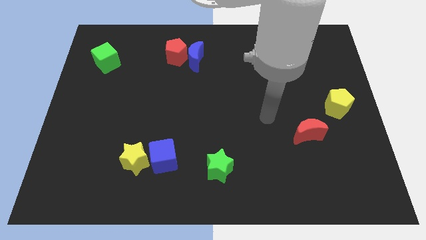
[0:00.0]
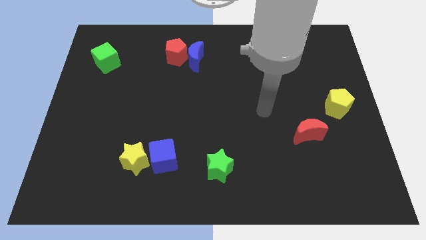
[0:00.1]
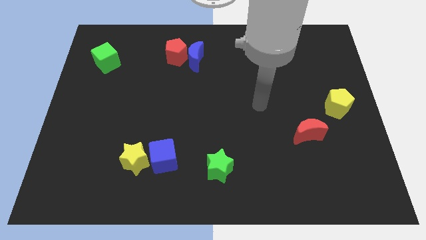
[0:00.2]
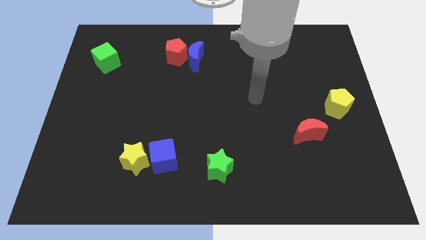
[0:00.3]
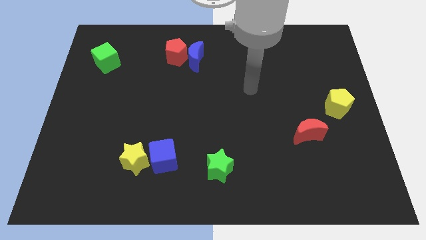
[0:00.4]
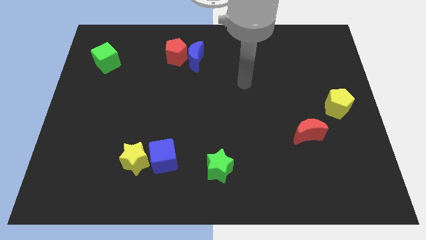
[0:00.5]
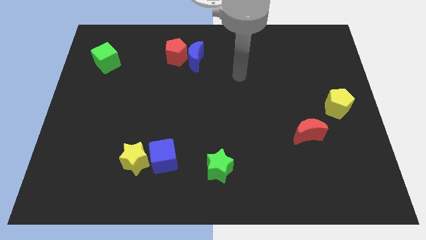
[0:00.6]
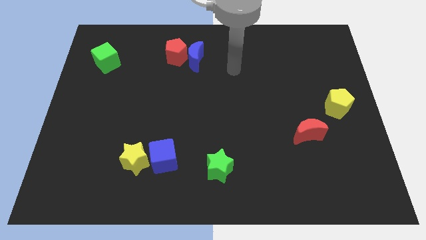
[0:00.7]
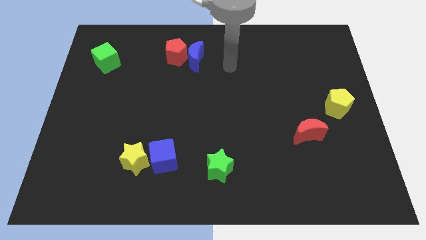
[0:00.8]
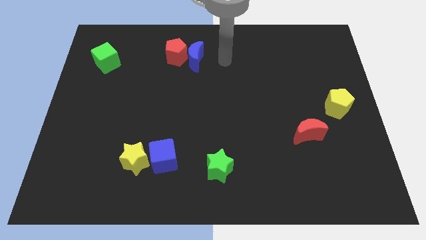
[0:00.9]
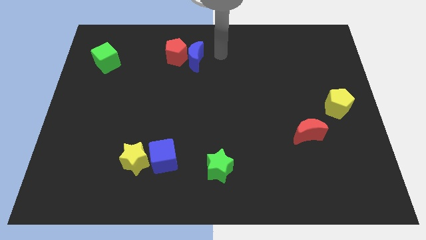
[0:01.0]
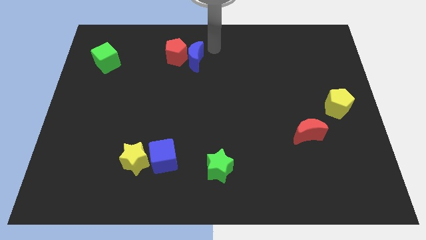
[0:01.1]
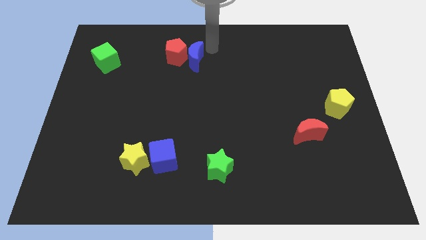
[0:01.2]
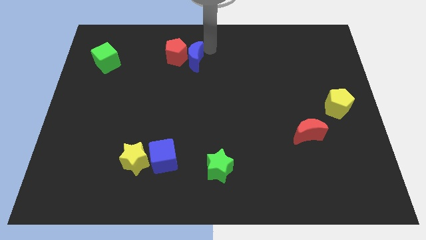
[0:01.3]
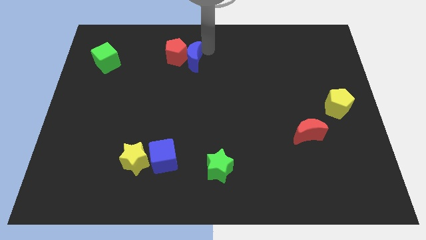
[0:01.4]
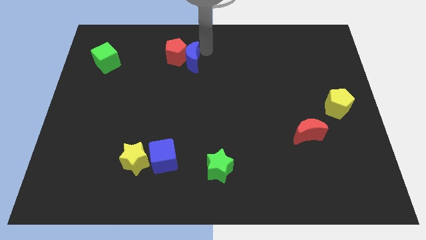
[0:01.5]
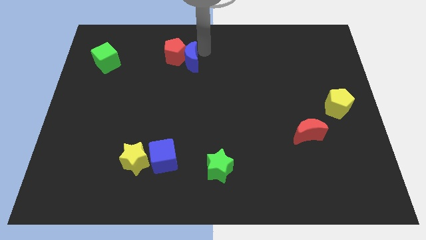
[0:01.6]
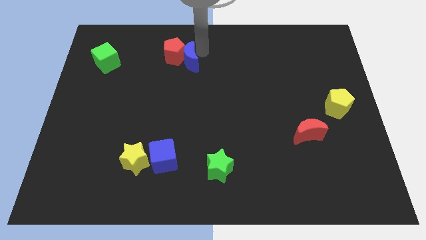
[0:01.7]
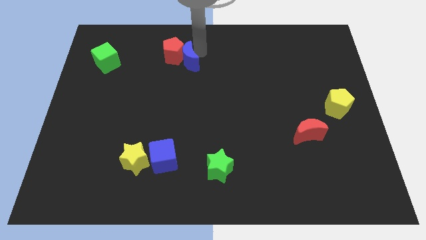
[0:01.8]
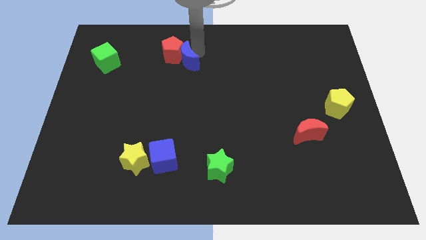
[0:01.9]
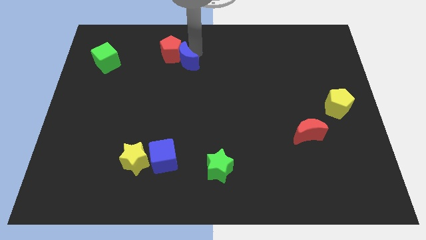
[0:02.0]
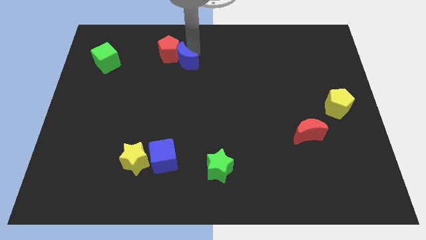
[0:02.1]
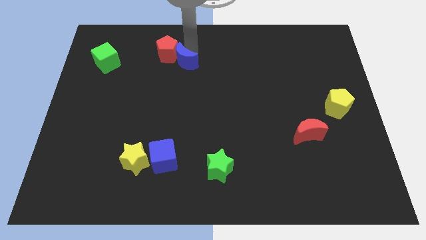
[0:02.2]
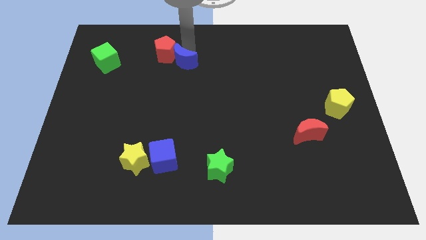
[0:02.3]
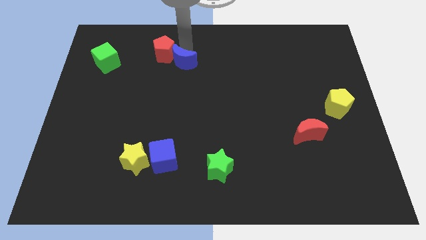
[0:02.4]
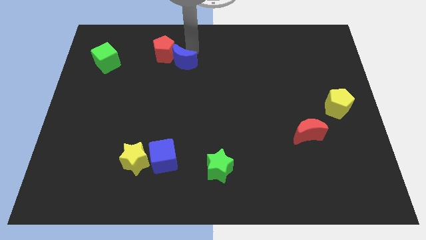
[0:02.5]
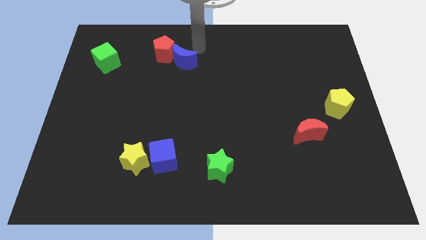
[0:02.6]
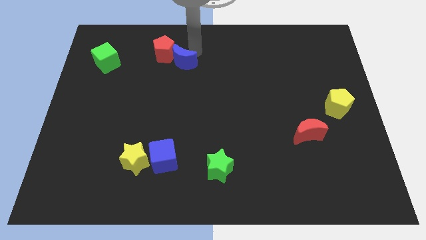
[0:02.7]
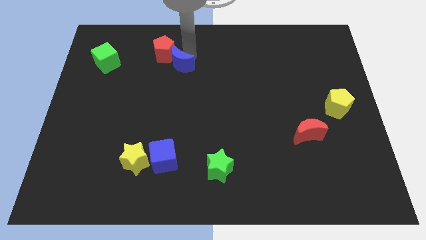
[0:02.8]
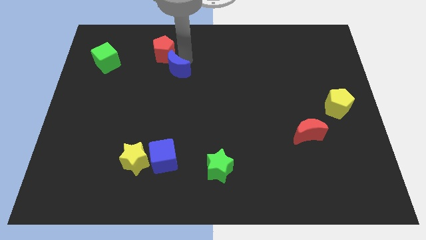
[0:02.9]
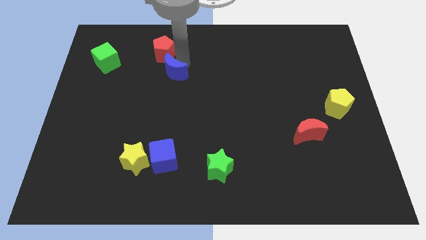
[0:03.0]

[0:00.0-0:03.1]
move the blue moon slightly diagonally down and left

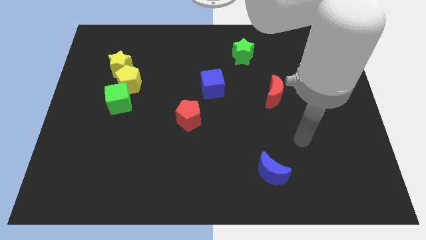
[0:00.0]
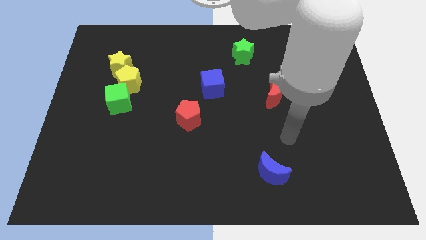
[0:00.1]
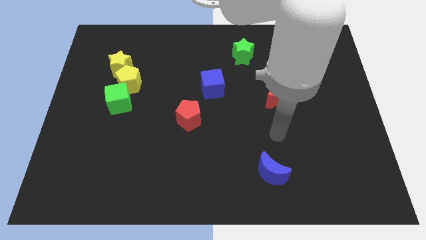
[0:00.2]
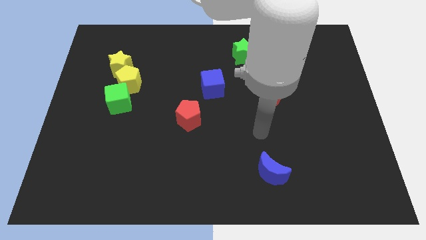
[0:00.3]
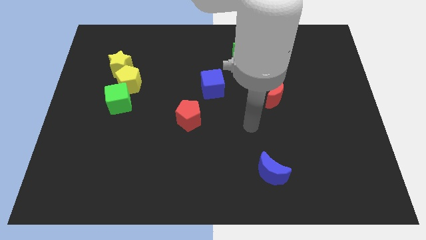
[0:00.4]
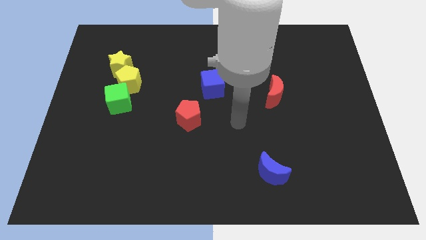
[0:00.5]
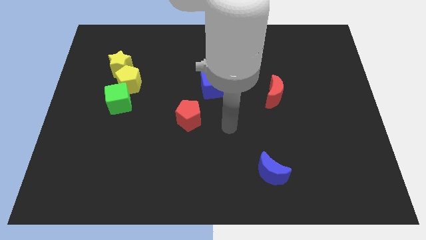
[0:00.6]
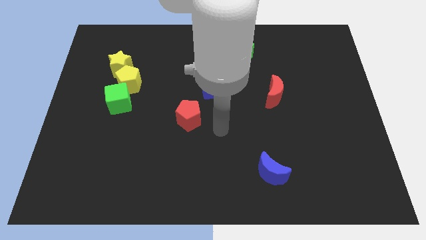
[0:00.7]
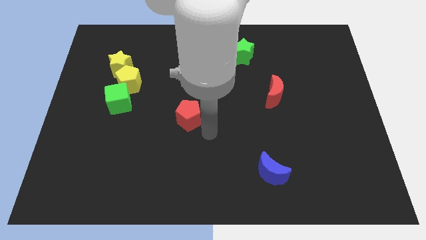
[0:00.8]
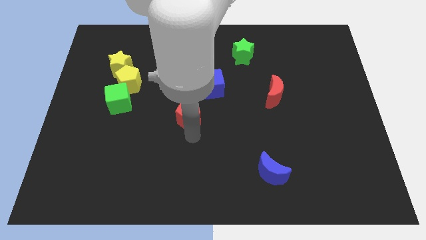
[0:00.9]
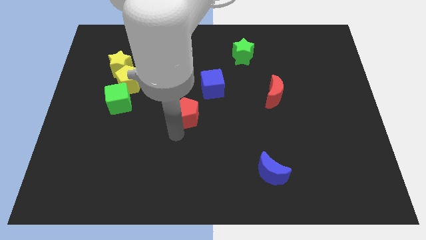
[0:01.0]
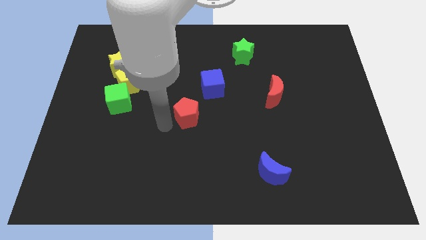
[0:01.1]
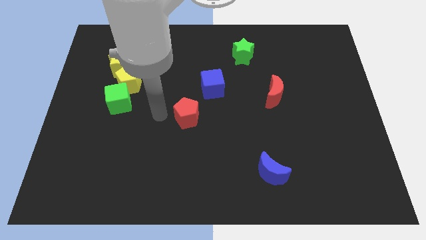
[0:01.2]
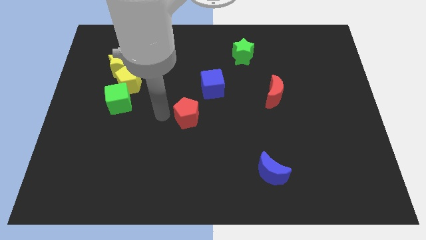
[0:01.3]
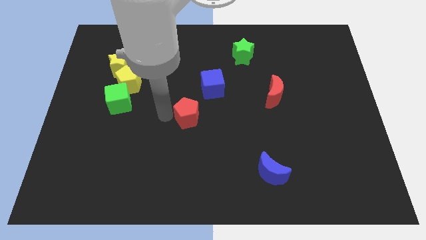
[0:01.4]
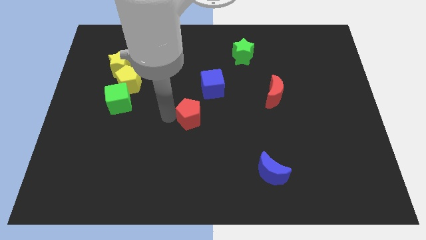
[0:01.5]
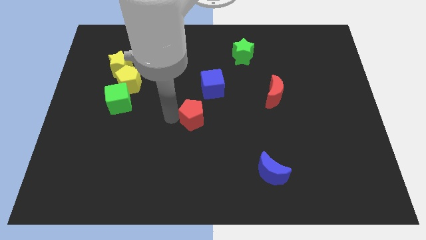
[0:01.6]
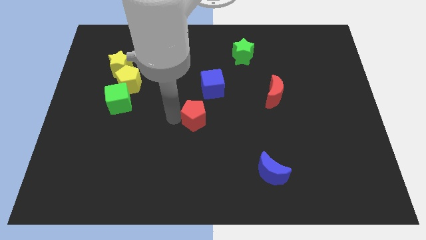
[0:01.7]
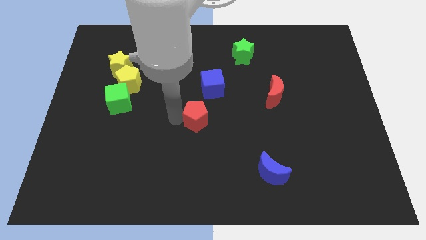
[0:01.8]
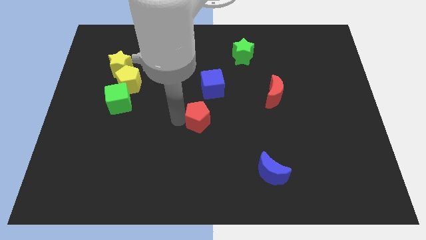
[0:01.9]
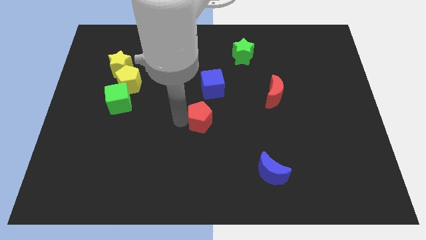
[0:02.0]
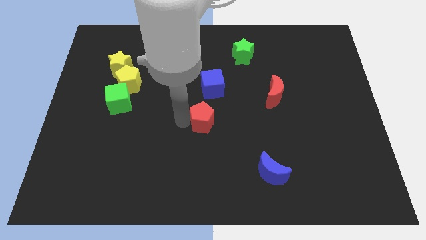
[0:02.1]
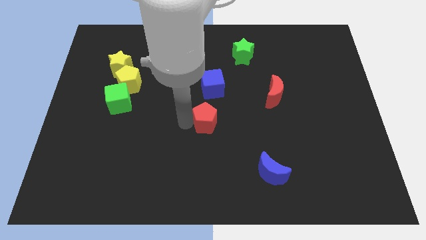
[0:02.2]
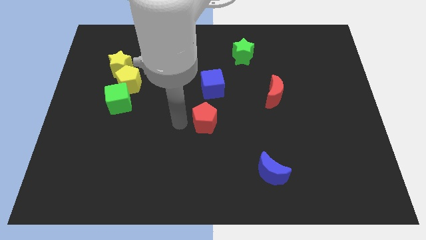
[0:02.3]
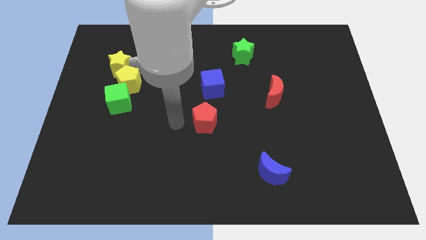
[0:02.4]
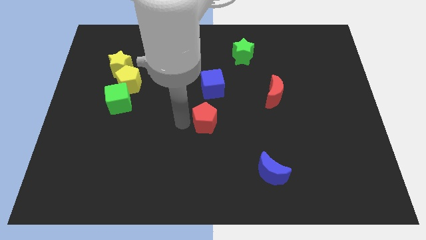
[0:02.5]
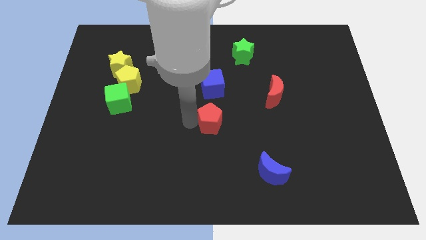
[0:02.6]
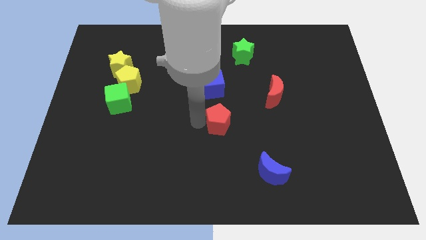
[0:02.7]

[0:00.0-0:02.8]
move the red pentagon right a little bit

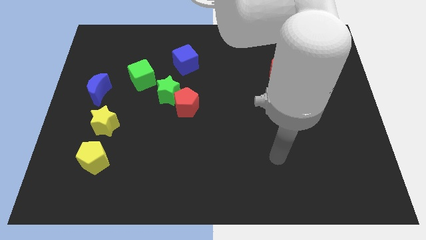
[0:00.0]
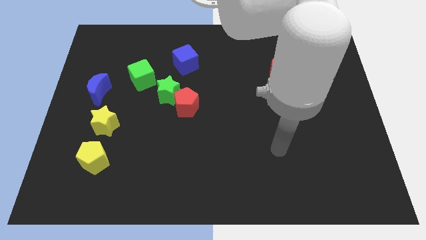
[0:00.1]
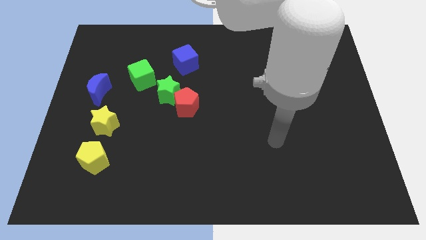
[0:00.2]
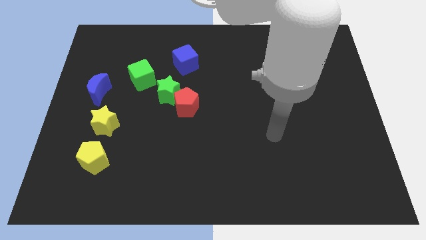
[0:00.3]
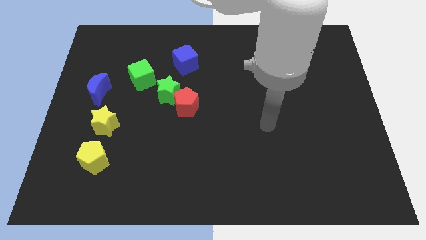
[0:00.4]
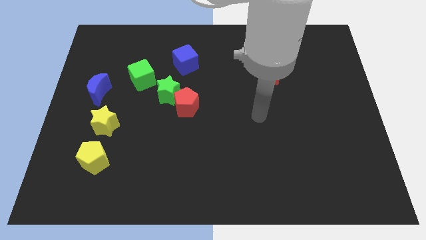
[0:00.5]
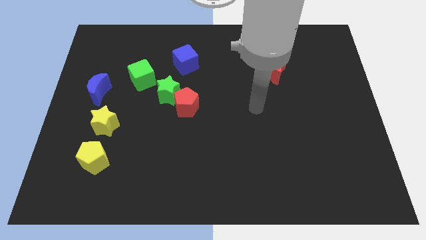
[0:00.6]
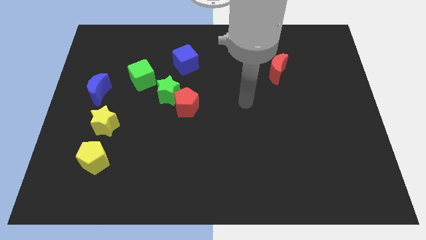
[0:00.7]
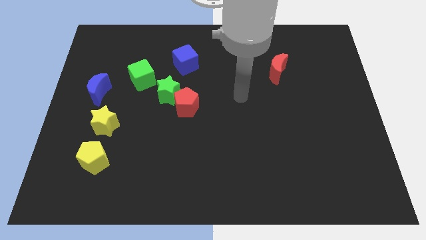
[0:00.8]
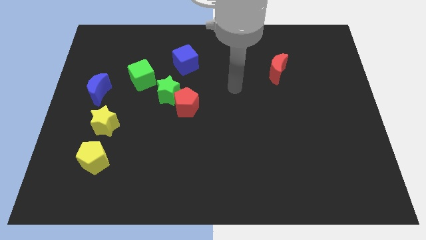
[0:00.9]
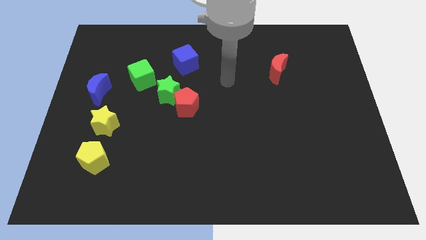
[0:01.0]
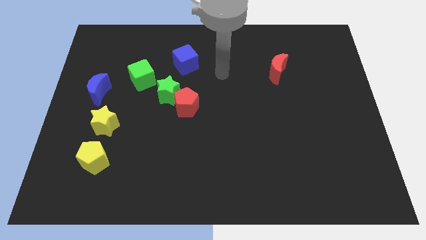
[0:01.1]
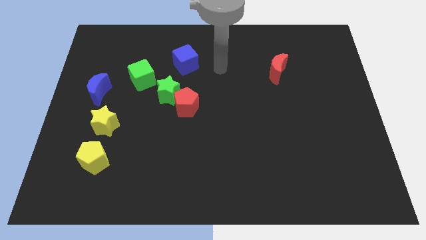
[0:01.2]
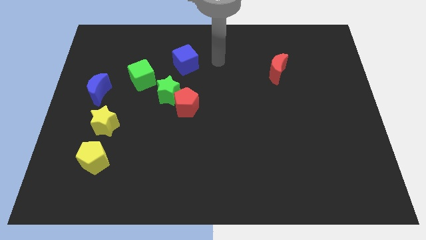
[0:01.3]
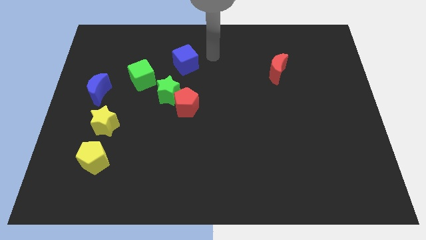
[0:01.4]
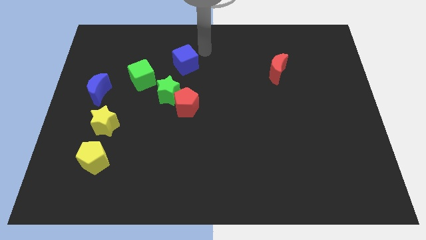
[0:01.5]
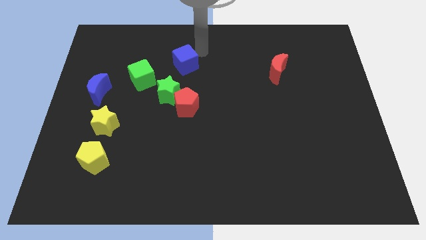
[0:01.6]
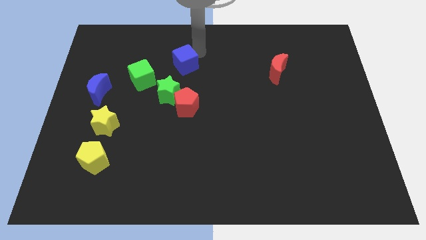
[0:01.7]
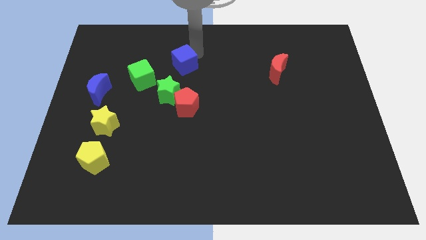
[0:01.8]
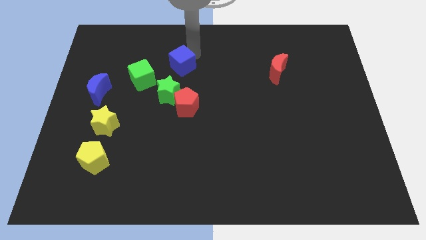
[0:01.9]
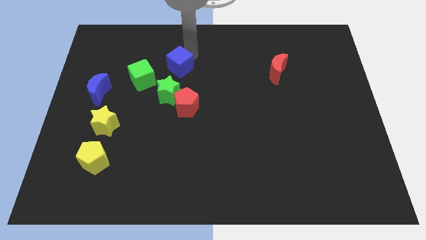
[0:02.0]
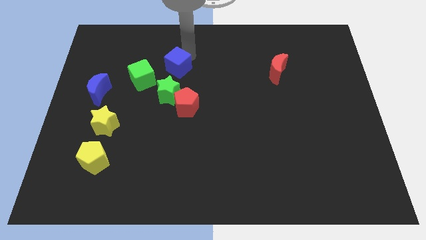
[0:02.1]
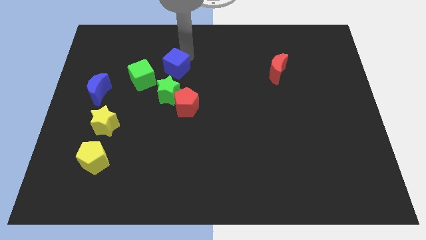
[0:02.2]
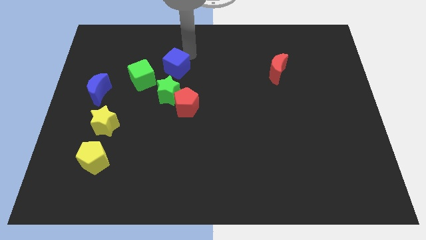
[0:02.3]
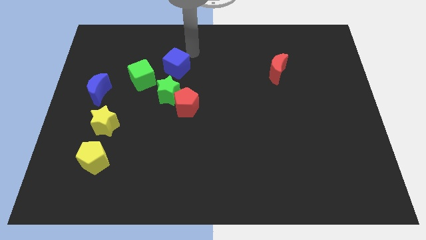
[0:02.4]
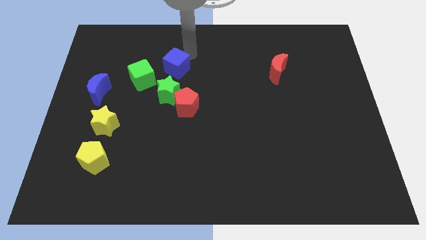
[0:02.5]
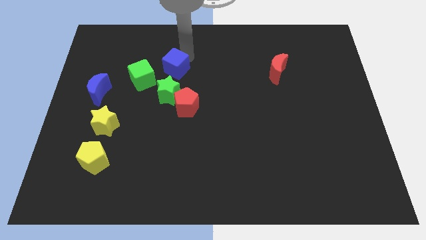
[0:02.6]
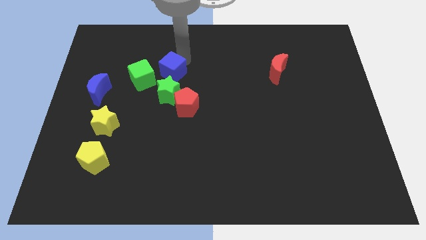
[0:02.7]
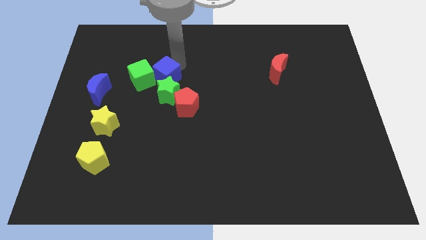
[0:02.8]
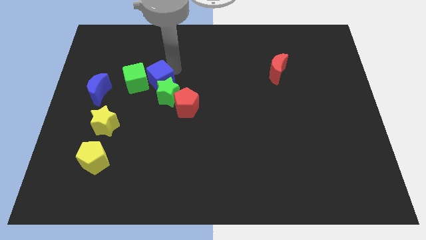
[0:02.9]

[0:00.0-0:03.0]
push the blue cube diagonally down and left slightly
